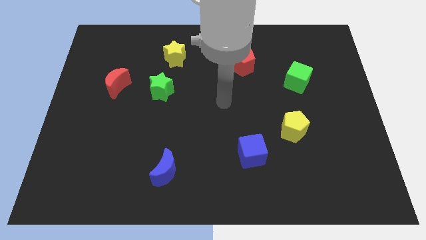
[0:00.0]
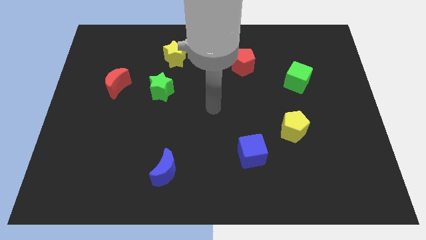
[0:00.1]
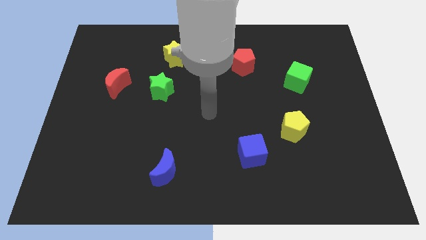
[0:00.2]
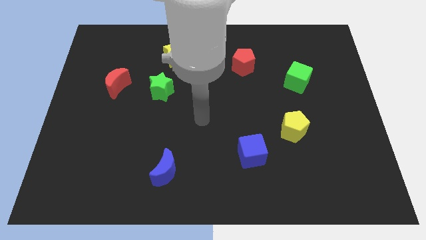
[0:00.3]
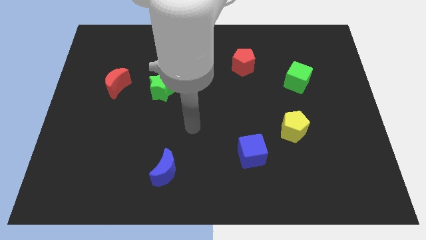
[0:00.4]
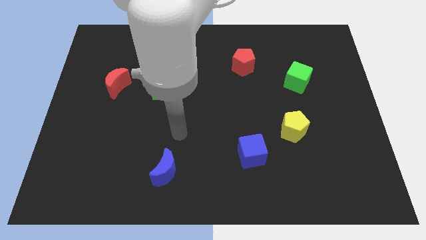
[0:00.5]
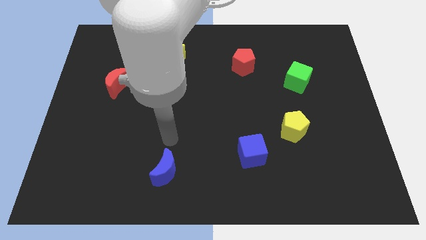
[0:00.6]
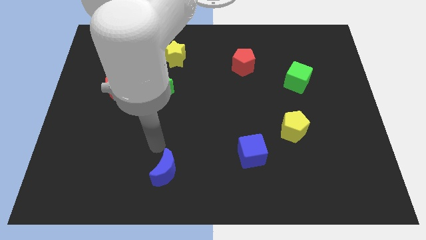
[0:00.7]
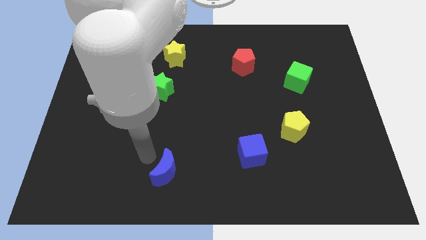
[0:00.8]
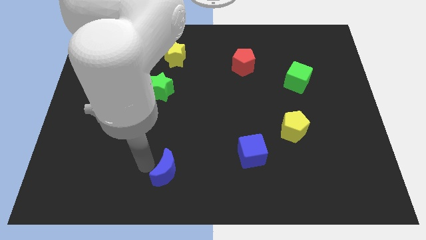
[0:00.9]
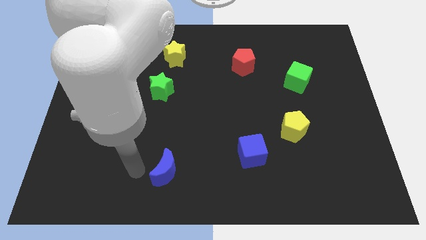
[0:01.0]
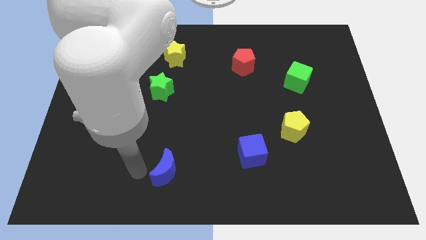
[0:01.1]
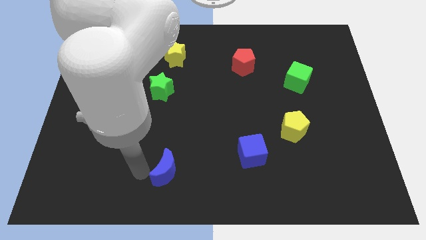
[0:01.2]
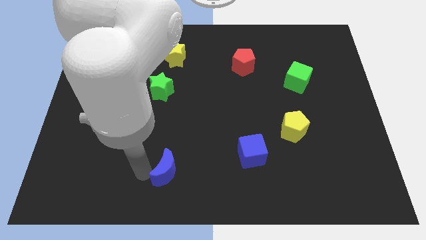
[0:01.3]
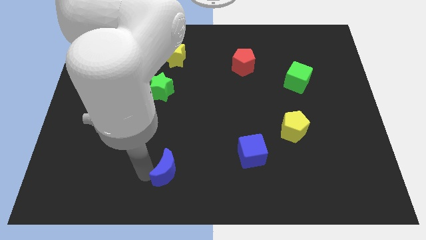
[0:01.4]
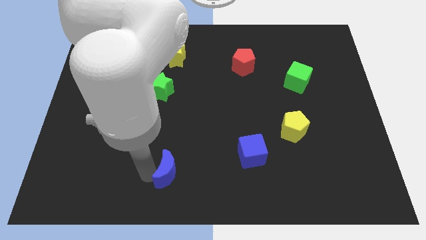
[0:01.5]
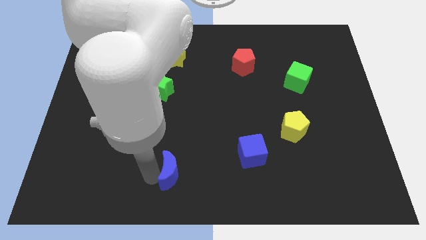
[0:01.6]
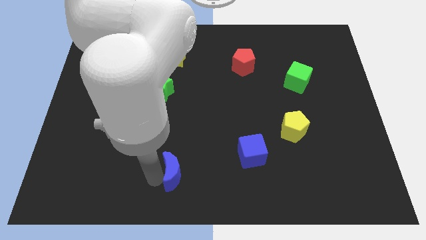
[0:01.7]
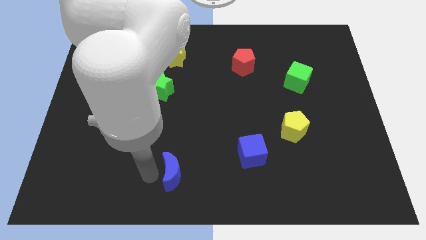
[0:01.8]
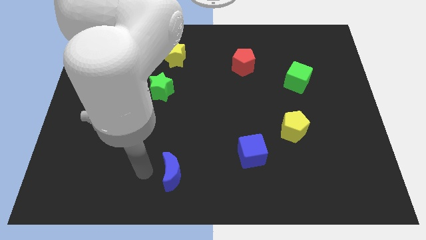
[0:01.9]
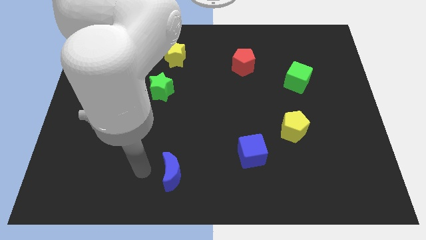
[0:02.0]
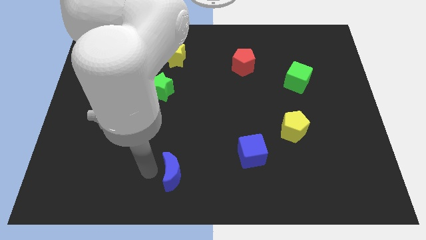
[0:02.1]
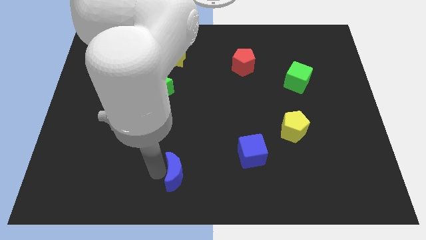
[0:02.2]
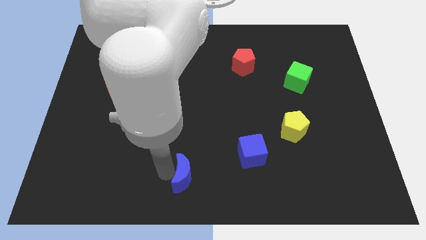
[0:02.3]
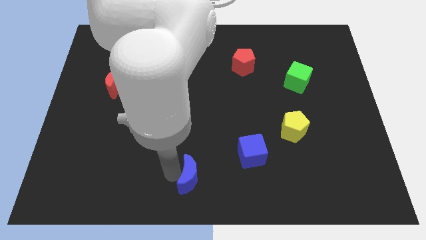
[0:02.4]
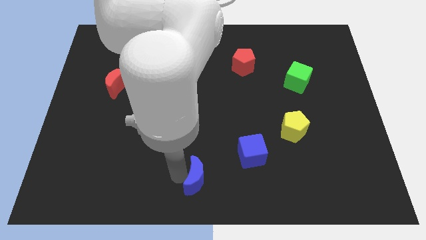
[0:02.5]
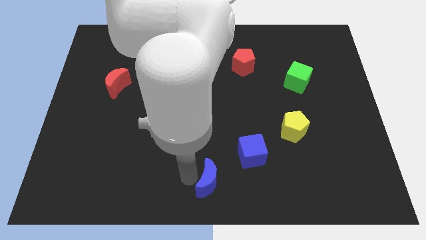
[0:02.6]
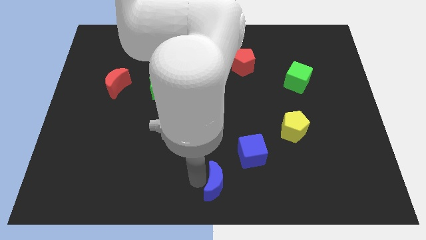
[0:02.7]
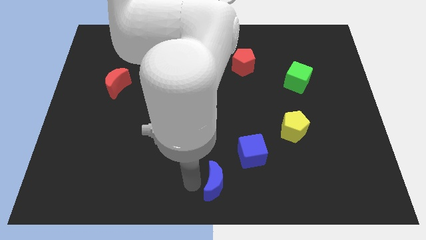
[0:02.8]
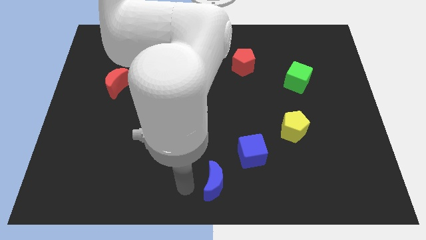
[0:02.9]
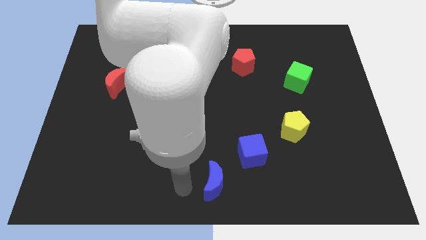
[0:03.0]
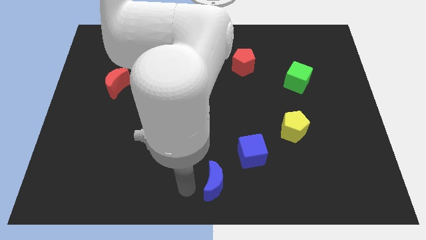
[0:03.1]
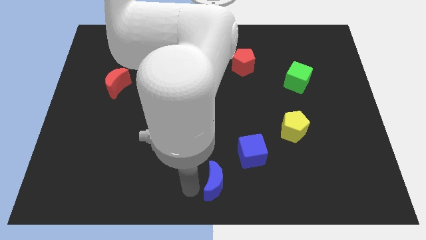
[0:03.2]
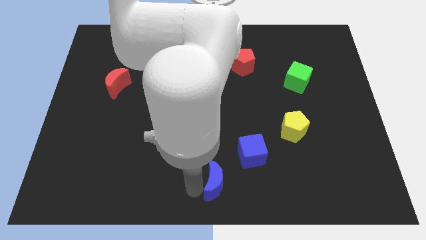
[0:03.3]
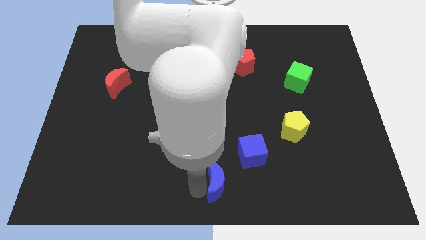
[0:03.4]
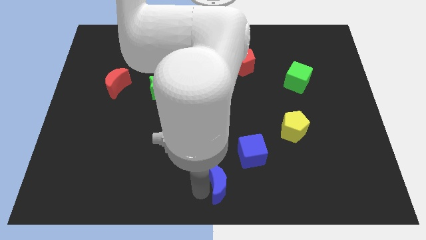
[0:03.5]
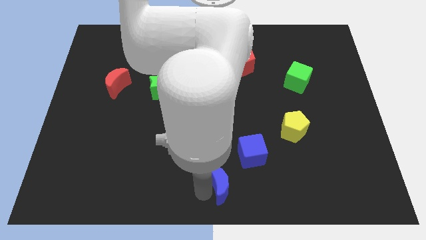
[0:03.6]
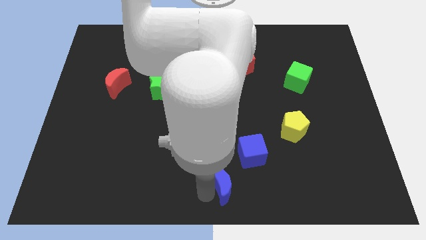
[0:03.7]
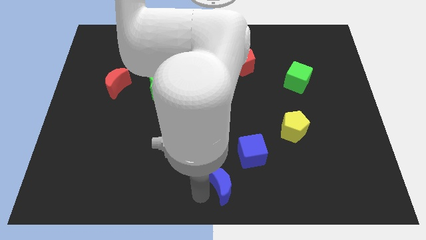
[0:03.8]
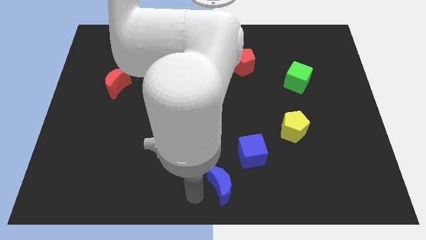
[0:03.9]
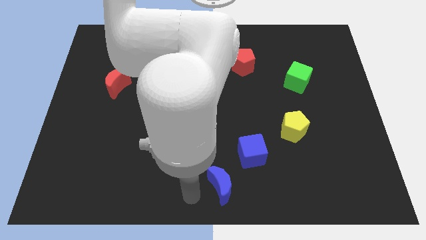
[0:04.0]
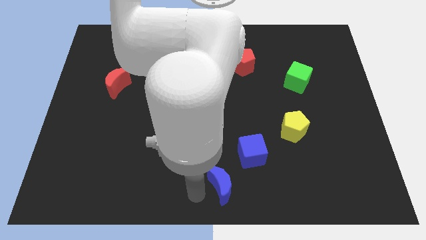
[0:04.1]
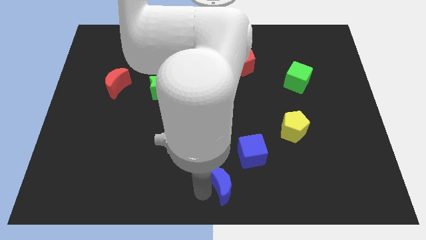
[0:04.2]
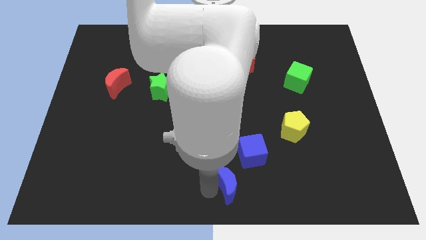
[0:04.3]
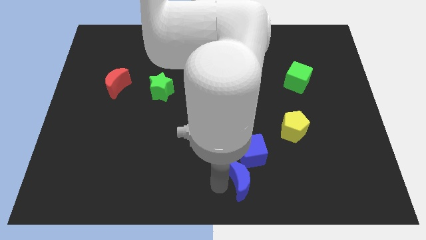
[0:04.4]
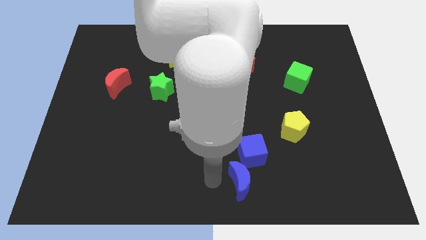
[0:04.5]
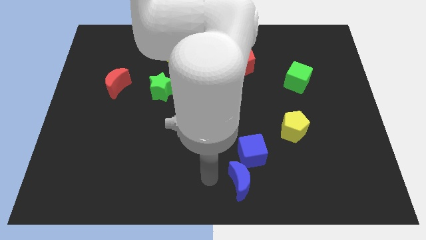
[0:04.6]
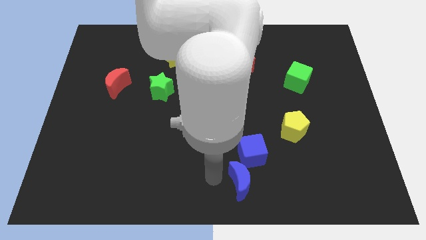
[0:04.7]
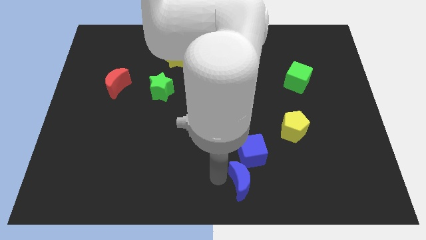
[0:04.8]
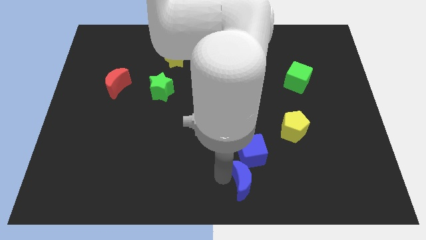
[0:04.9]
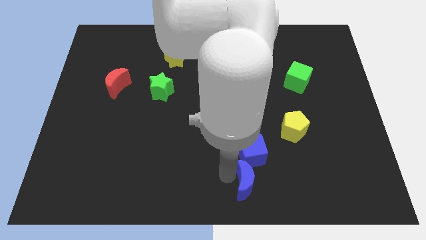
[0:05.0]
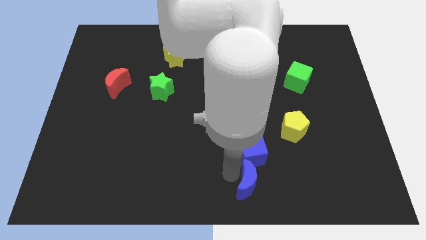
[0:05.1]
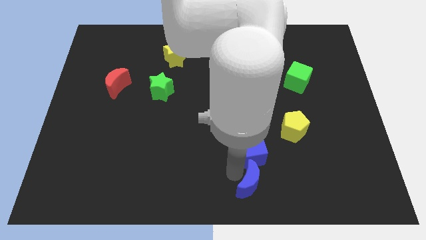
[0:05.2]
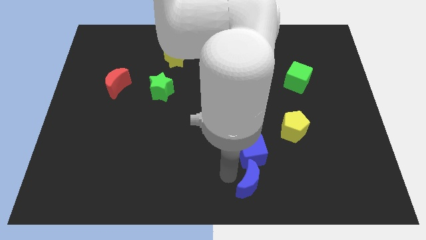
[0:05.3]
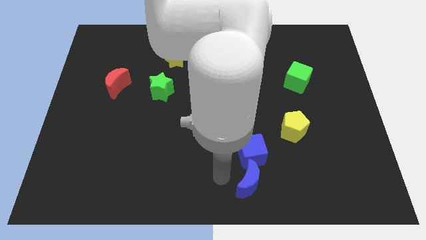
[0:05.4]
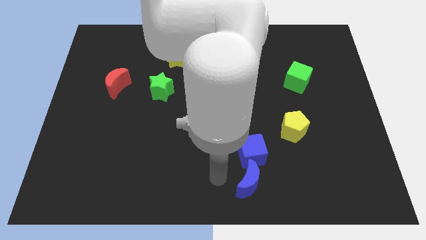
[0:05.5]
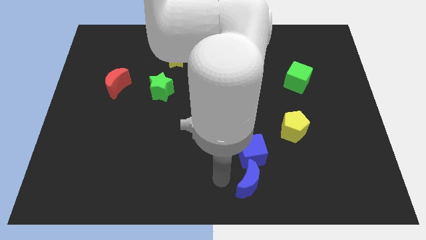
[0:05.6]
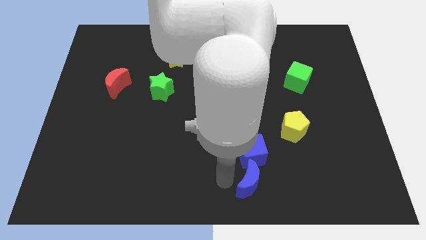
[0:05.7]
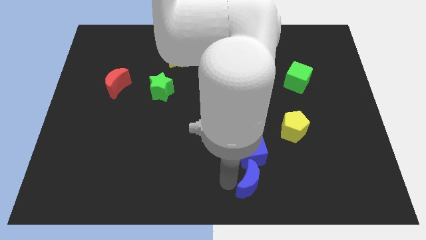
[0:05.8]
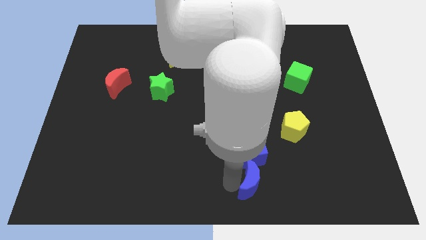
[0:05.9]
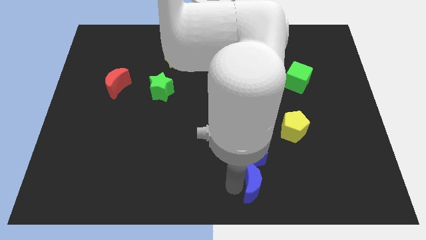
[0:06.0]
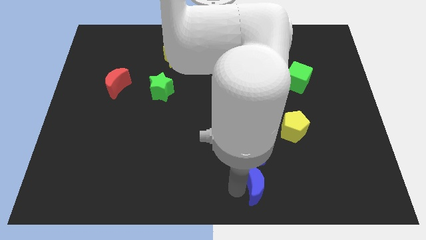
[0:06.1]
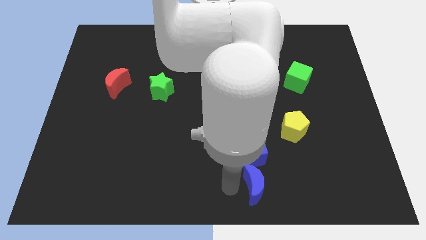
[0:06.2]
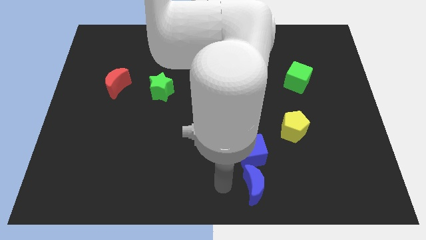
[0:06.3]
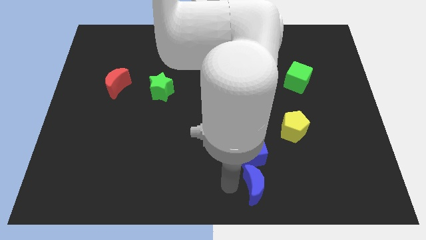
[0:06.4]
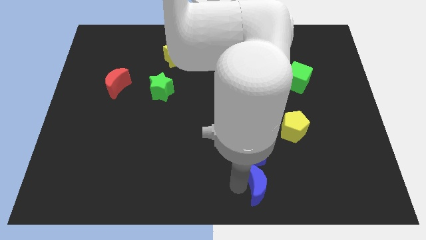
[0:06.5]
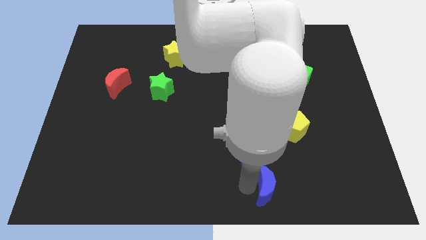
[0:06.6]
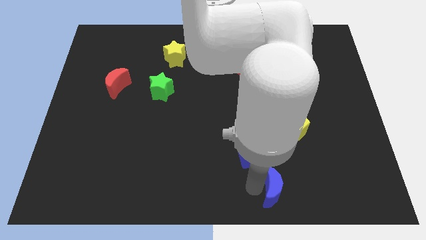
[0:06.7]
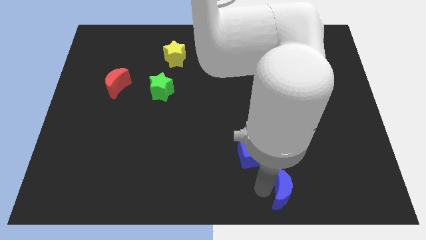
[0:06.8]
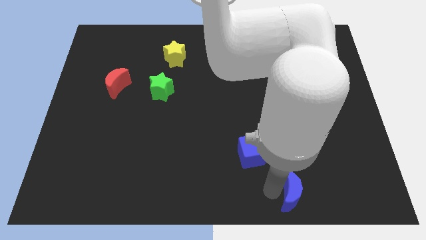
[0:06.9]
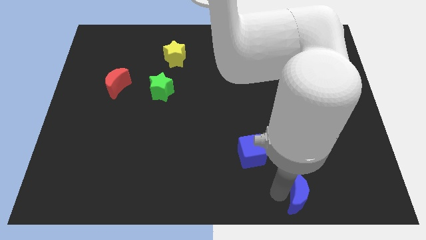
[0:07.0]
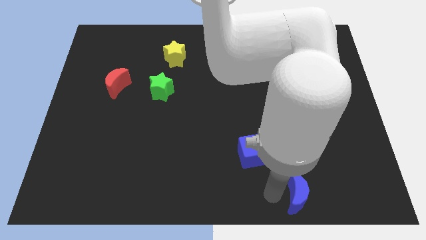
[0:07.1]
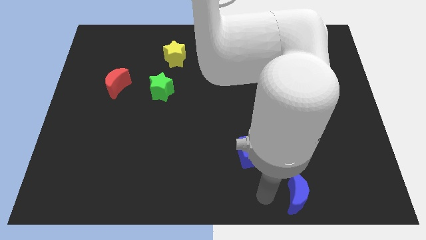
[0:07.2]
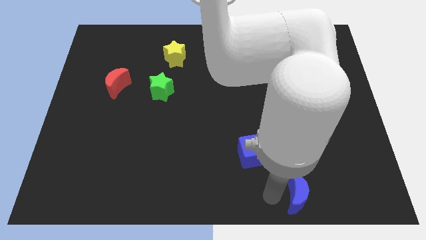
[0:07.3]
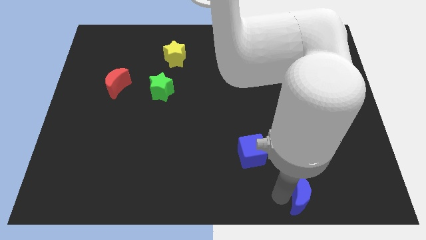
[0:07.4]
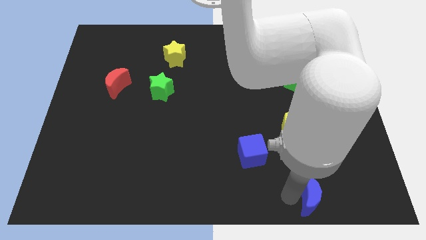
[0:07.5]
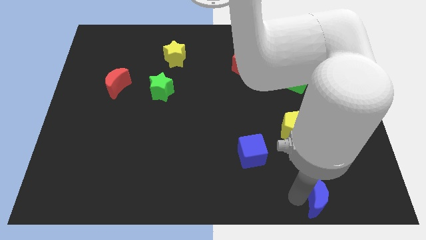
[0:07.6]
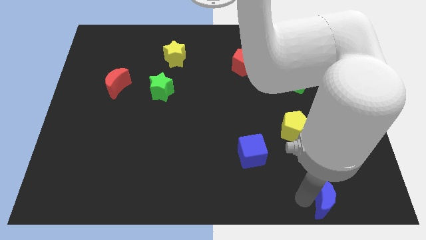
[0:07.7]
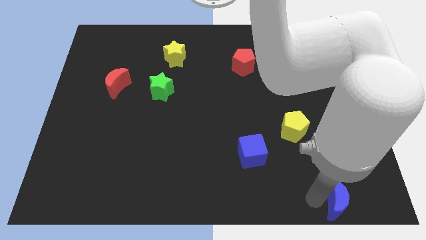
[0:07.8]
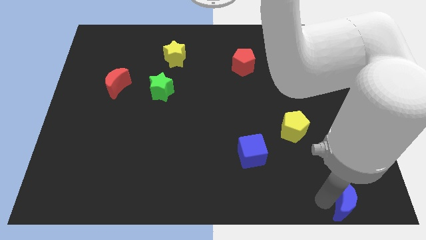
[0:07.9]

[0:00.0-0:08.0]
slide the blue moon to the lower right corner
